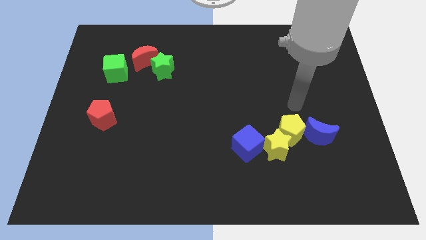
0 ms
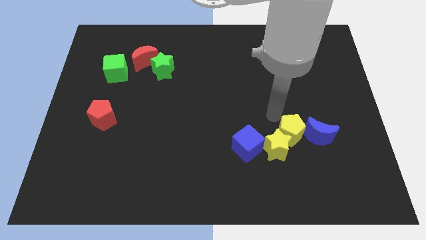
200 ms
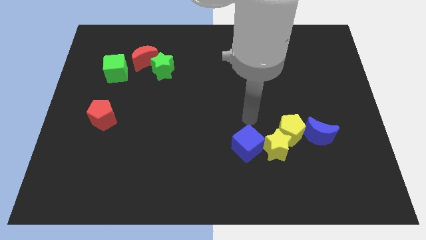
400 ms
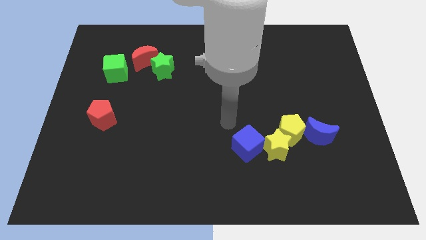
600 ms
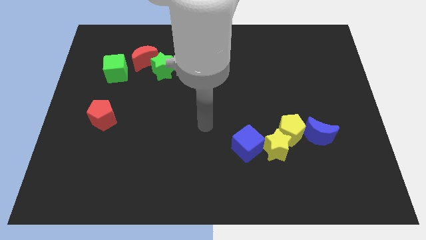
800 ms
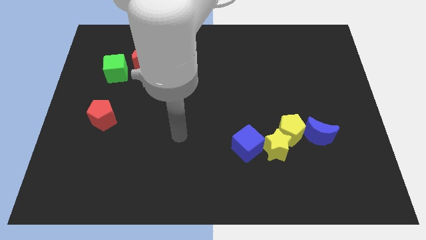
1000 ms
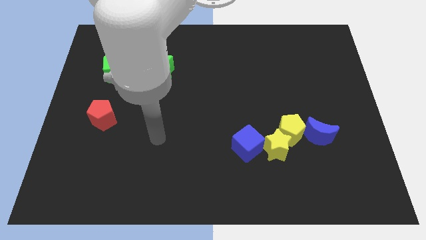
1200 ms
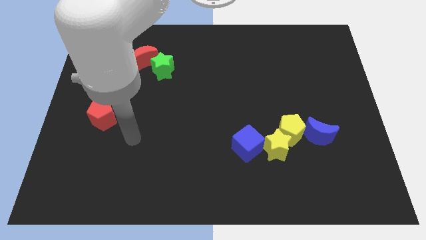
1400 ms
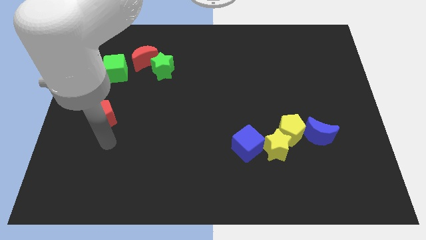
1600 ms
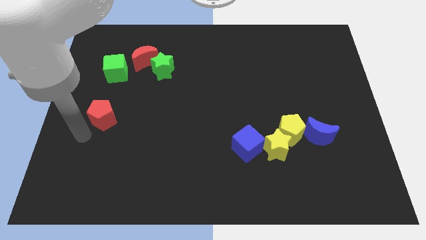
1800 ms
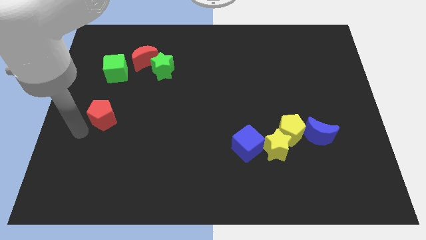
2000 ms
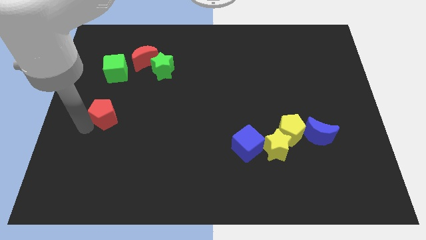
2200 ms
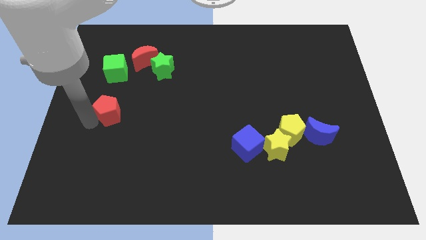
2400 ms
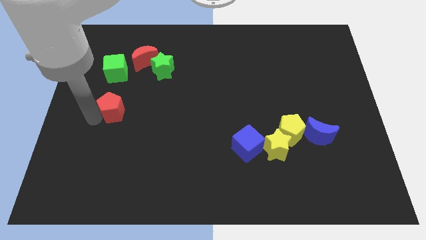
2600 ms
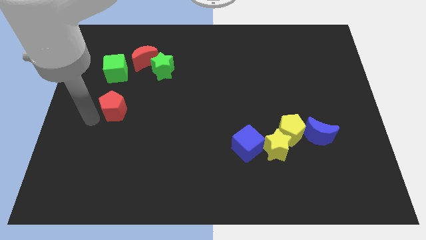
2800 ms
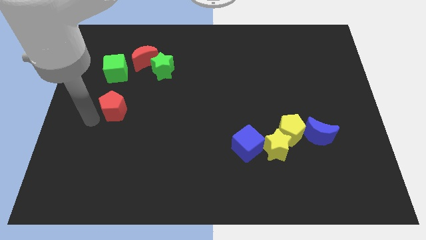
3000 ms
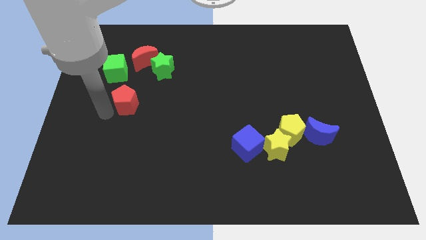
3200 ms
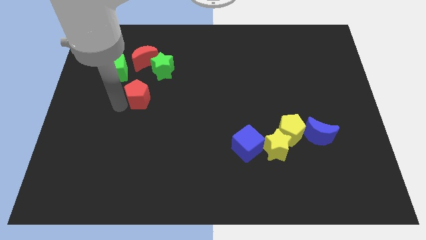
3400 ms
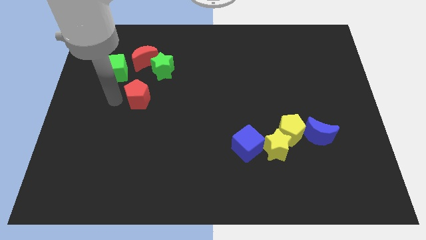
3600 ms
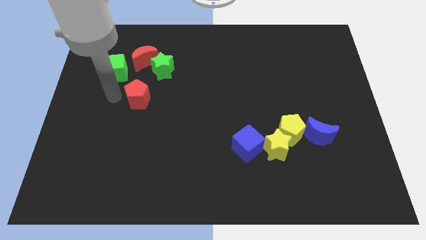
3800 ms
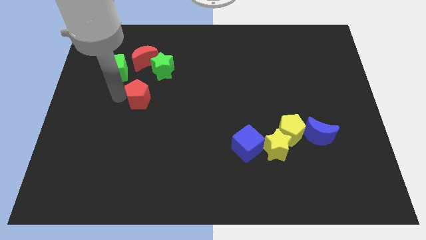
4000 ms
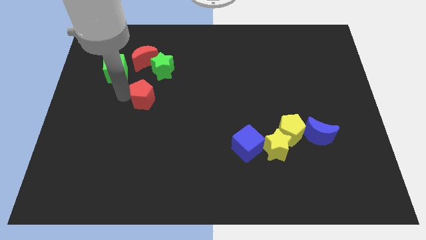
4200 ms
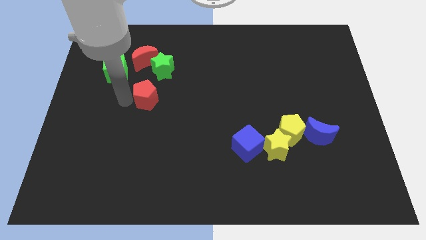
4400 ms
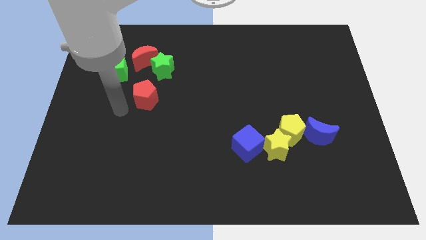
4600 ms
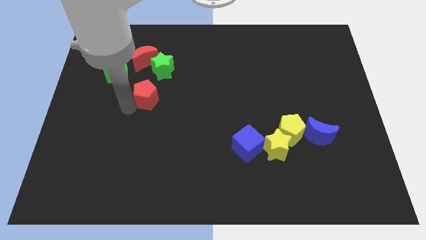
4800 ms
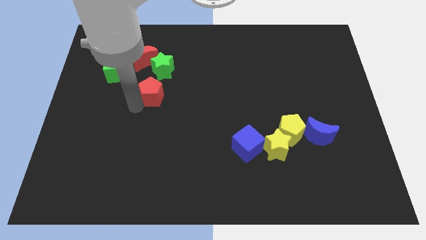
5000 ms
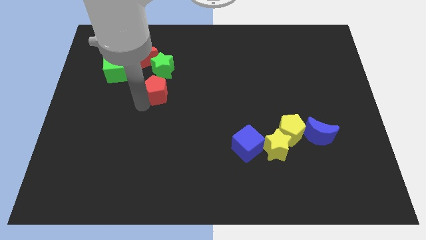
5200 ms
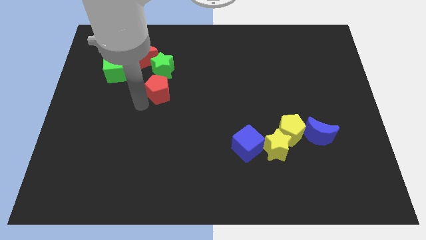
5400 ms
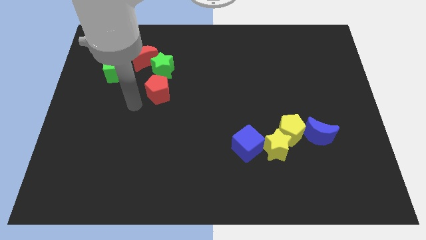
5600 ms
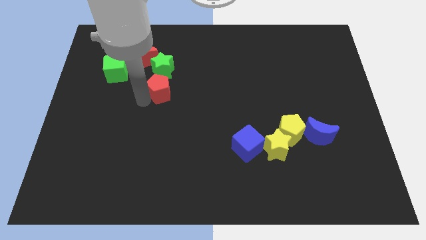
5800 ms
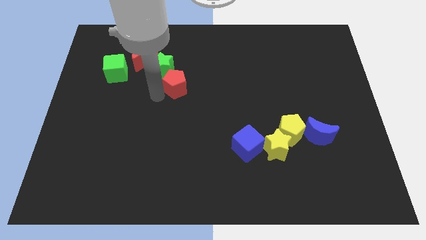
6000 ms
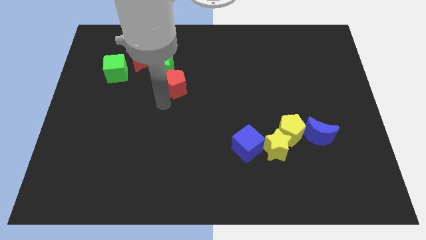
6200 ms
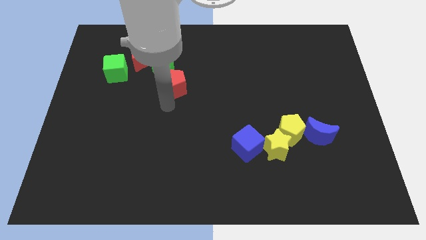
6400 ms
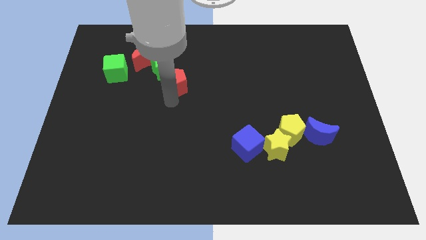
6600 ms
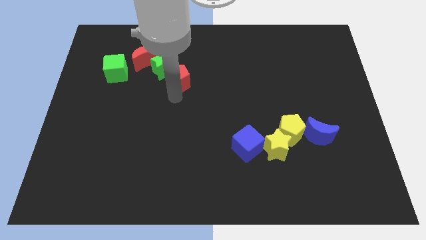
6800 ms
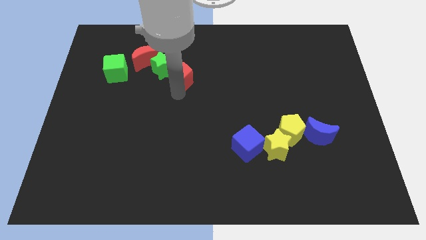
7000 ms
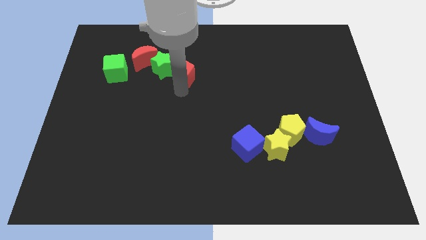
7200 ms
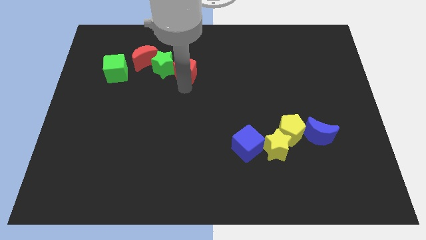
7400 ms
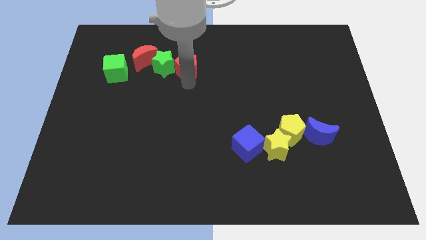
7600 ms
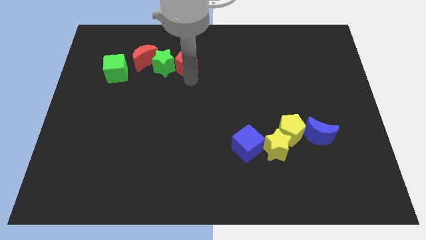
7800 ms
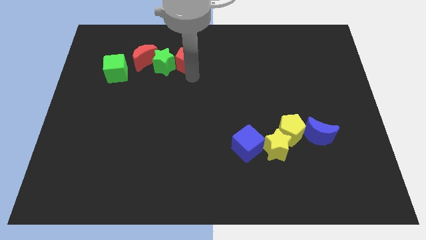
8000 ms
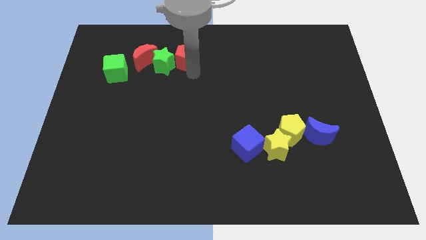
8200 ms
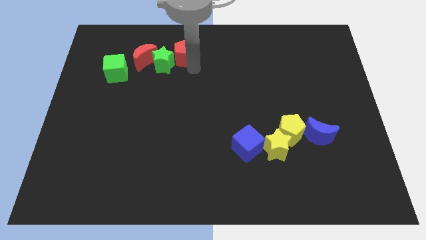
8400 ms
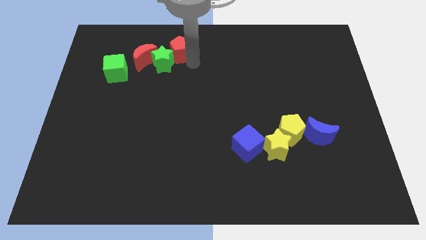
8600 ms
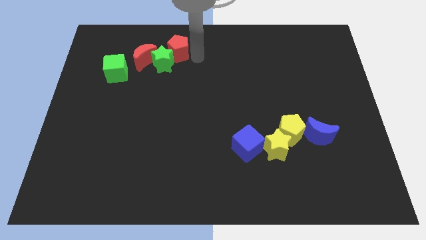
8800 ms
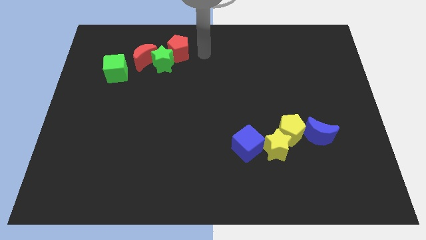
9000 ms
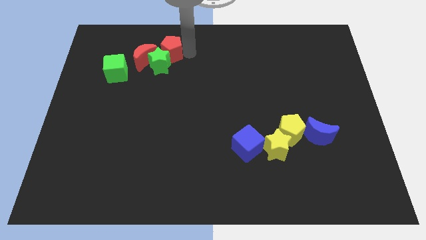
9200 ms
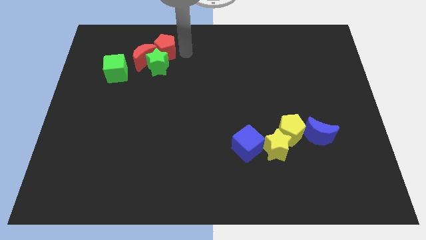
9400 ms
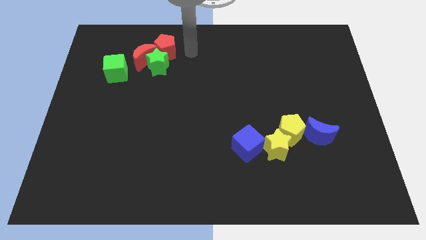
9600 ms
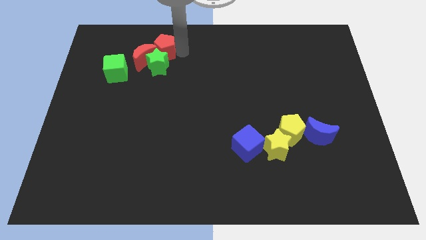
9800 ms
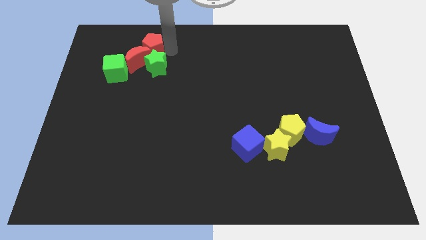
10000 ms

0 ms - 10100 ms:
move the red pentagon to the top right side of the green cube

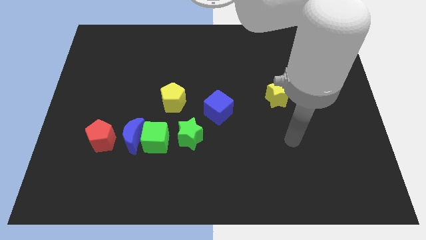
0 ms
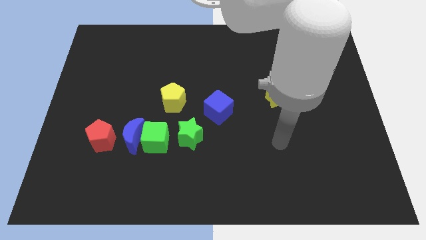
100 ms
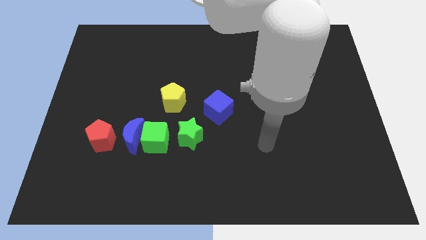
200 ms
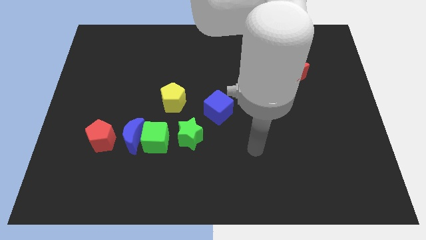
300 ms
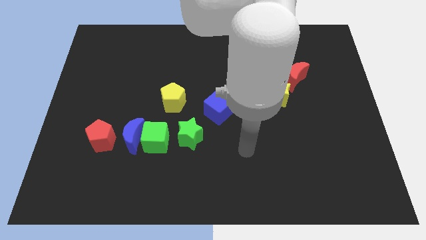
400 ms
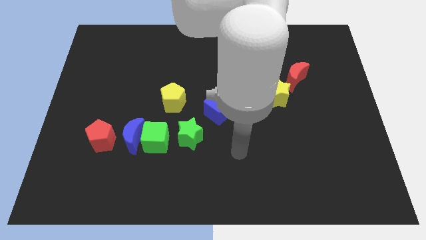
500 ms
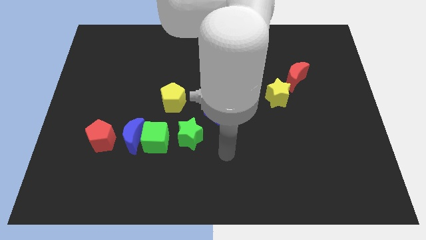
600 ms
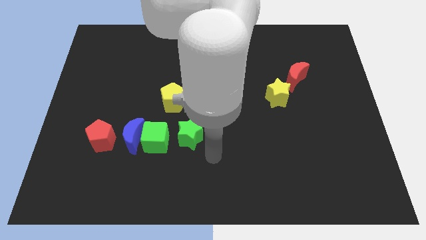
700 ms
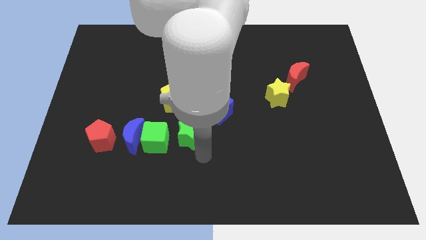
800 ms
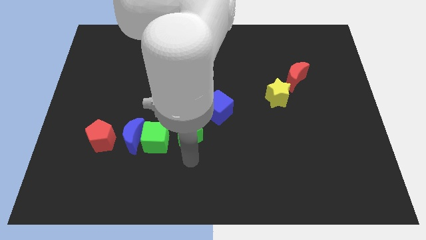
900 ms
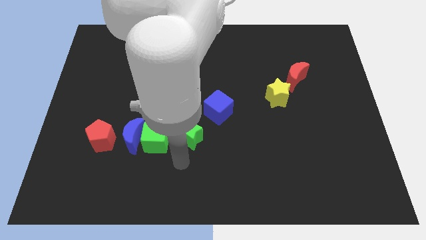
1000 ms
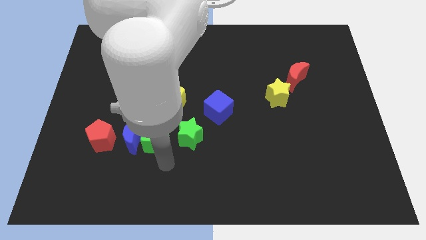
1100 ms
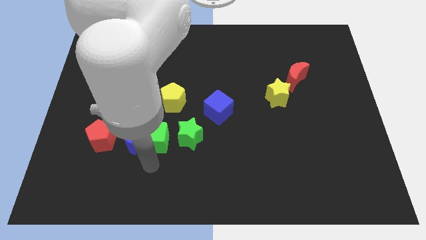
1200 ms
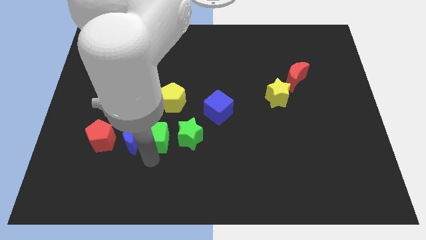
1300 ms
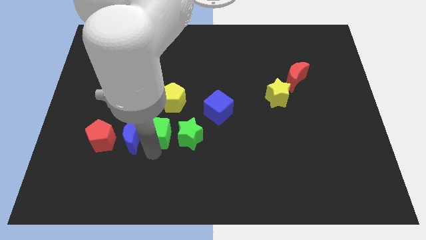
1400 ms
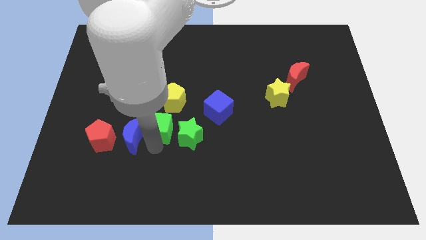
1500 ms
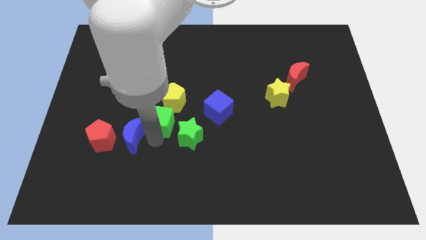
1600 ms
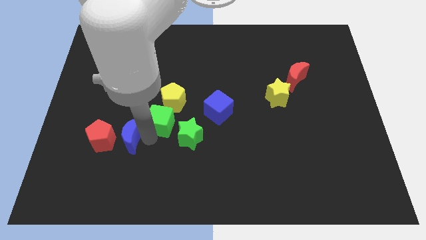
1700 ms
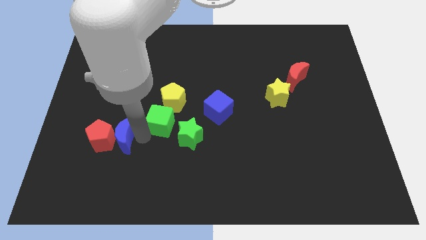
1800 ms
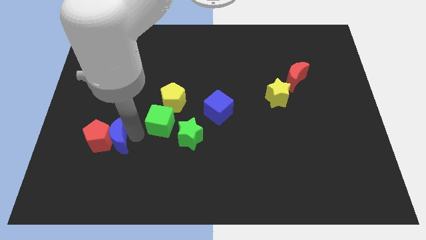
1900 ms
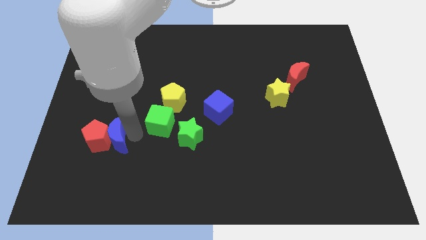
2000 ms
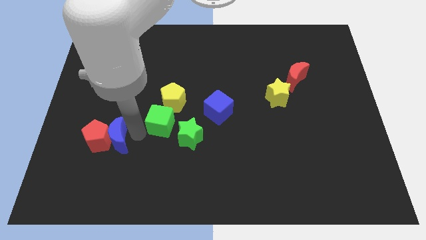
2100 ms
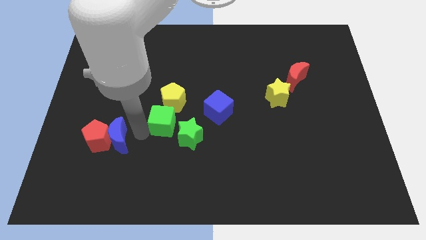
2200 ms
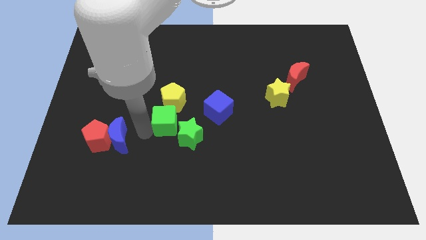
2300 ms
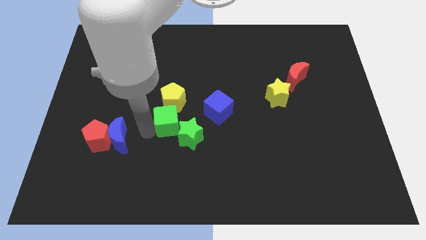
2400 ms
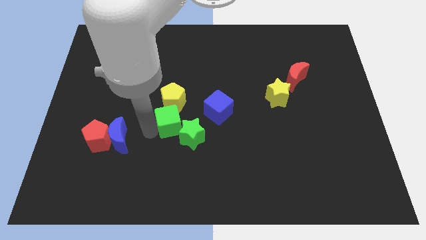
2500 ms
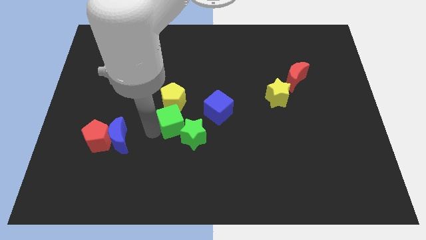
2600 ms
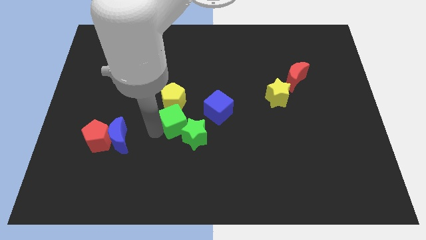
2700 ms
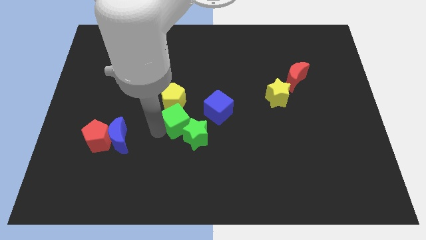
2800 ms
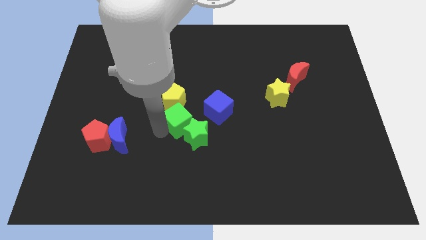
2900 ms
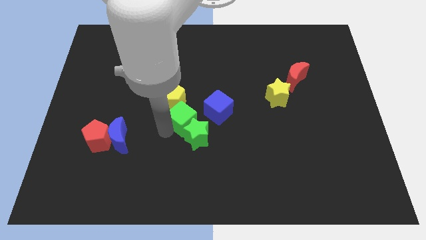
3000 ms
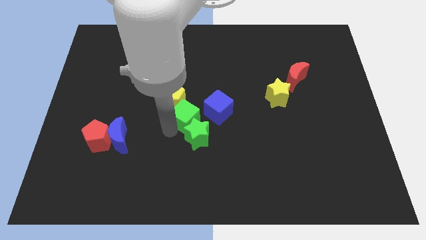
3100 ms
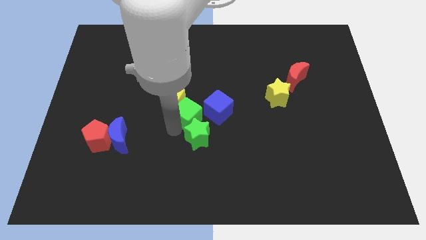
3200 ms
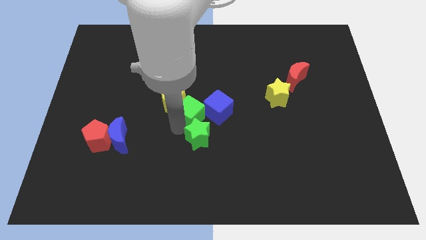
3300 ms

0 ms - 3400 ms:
put the green cube right of the yellow pentagon
